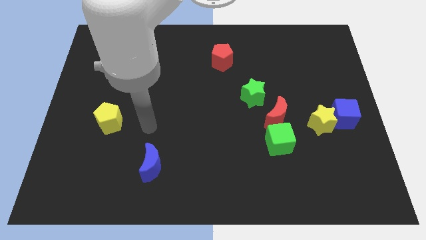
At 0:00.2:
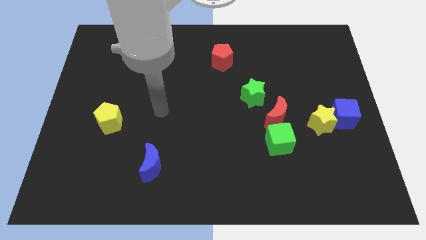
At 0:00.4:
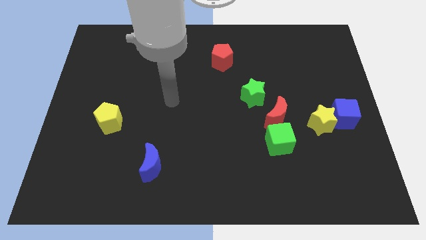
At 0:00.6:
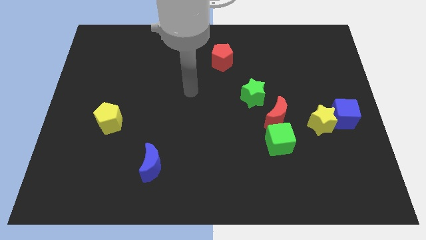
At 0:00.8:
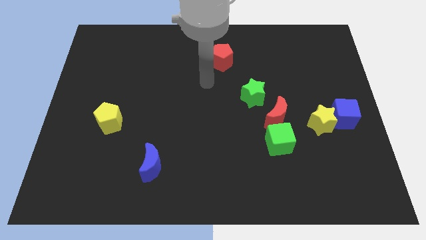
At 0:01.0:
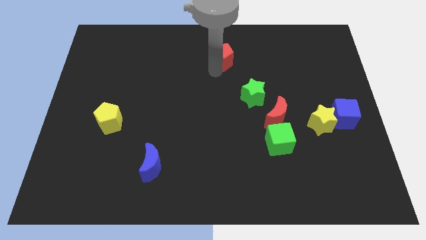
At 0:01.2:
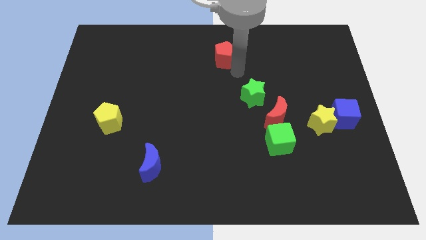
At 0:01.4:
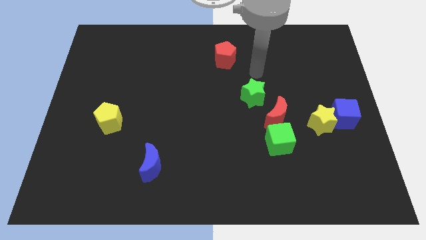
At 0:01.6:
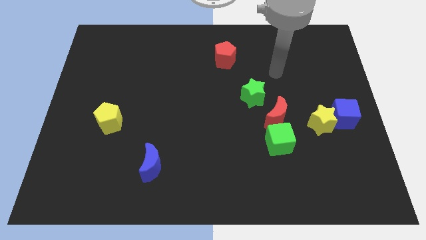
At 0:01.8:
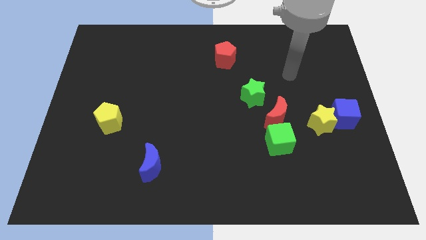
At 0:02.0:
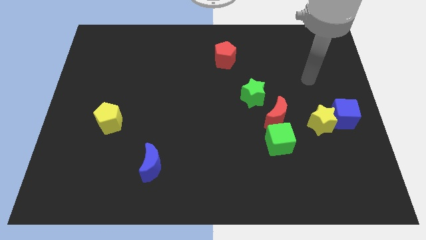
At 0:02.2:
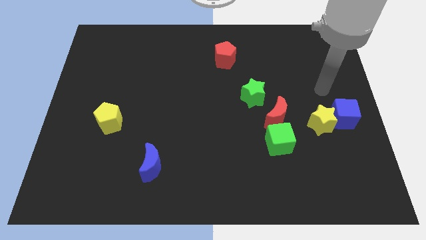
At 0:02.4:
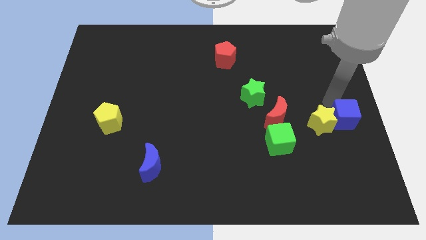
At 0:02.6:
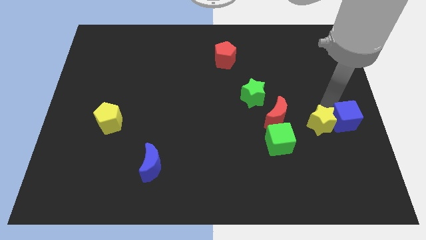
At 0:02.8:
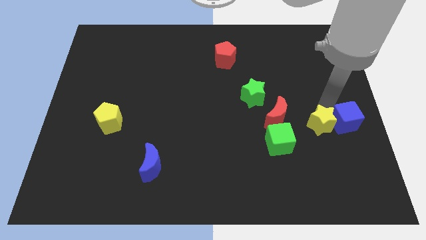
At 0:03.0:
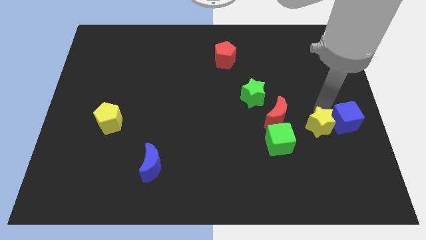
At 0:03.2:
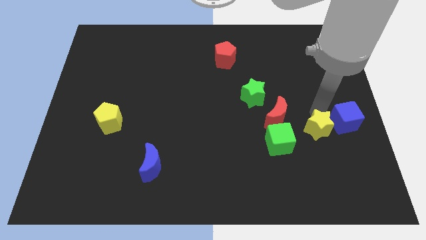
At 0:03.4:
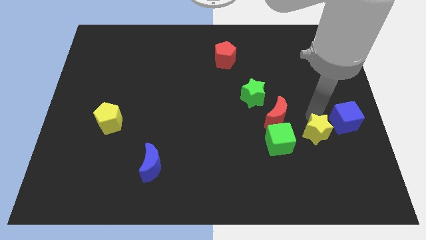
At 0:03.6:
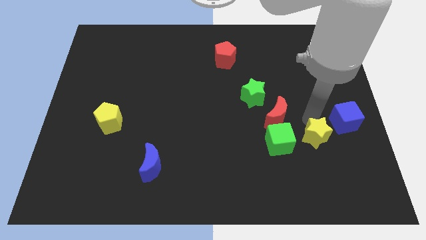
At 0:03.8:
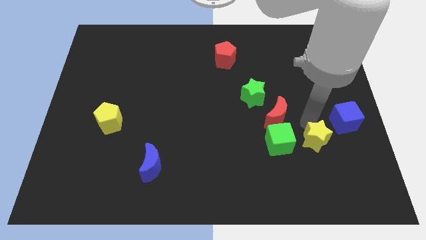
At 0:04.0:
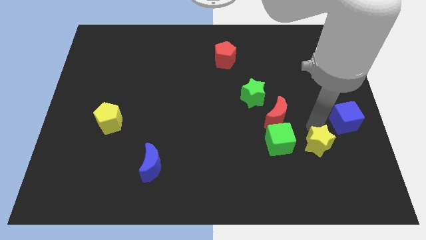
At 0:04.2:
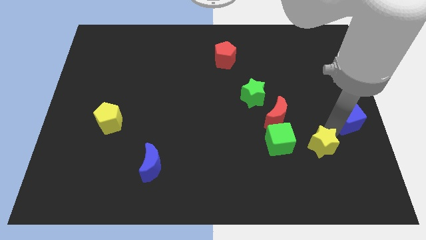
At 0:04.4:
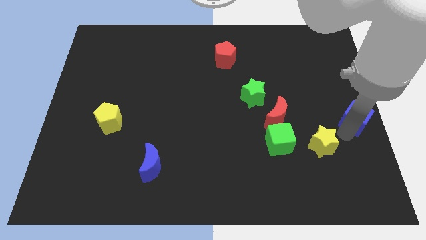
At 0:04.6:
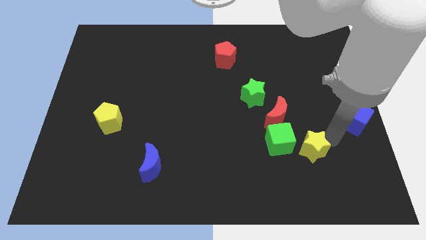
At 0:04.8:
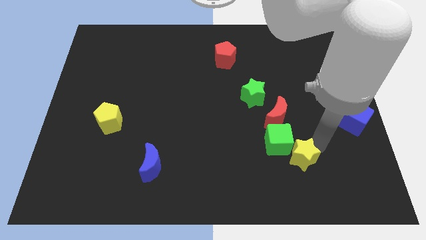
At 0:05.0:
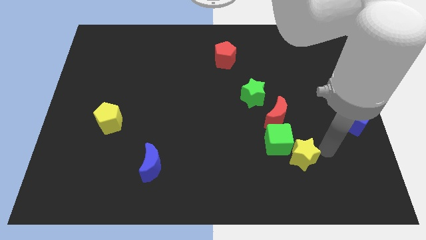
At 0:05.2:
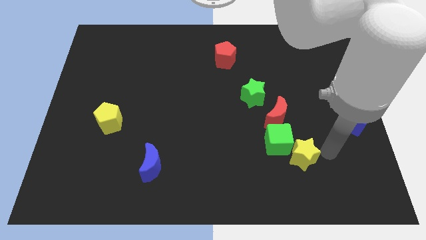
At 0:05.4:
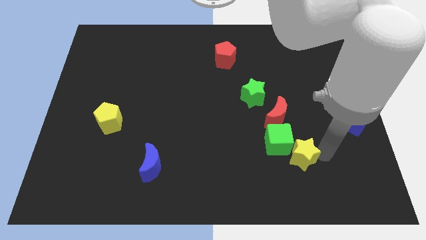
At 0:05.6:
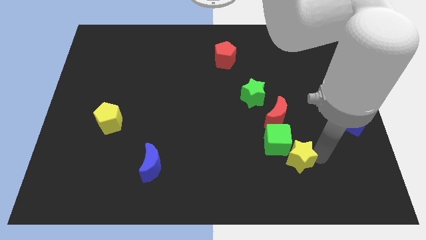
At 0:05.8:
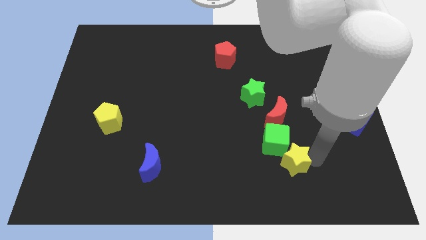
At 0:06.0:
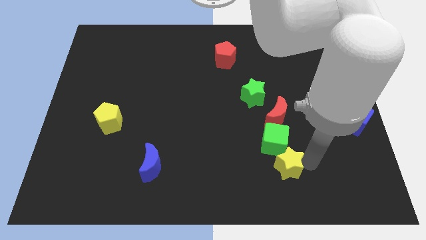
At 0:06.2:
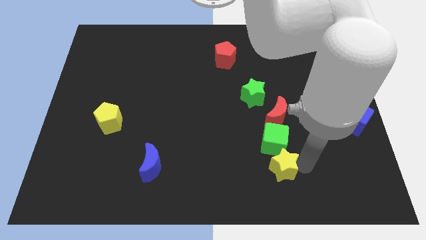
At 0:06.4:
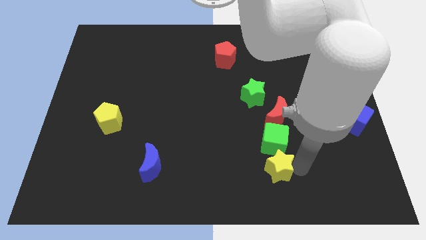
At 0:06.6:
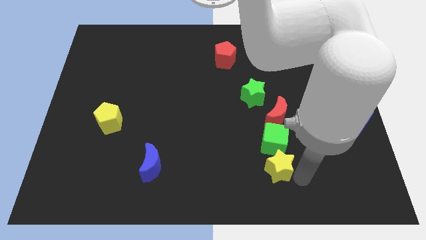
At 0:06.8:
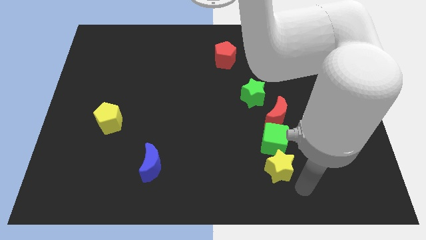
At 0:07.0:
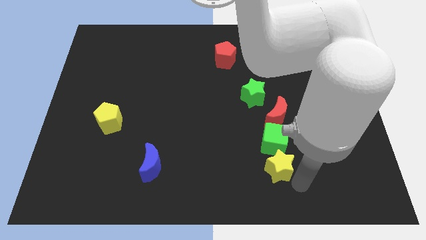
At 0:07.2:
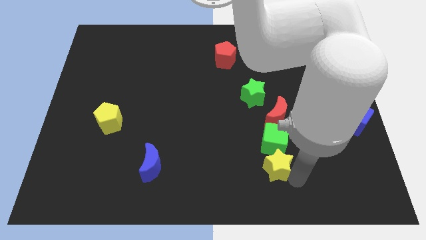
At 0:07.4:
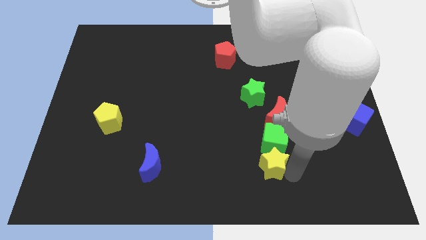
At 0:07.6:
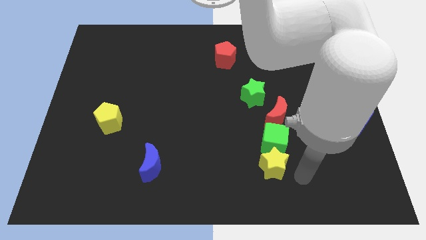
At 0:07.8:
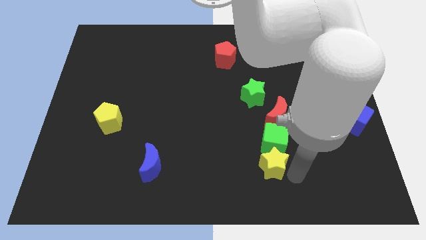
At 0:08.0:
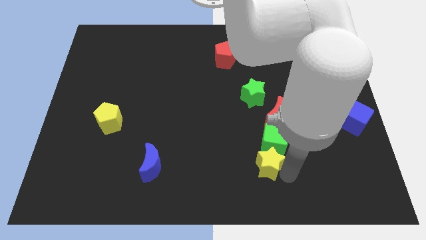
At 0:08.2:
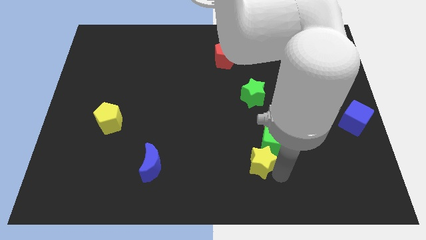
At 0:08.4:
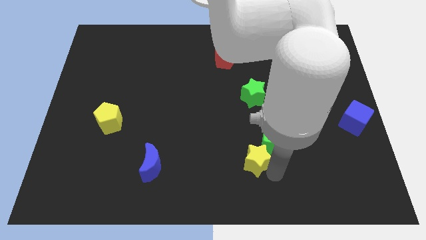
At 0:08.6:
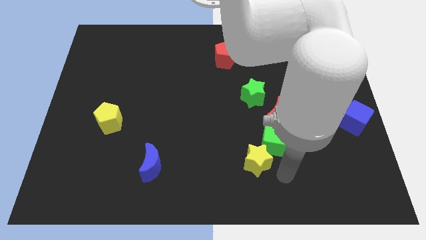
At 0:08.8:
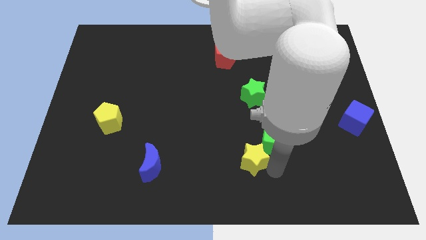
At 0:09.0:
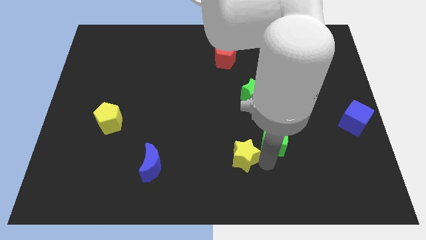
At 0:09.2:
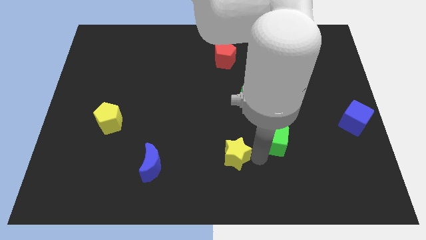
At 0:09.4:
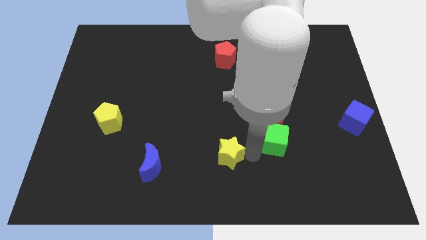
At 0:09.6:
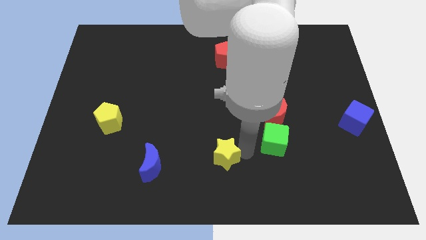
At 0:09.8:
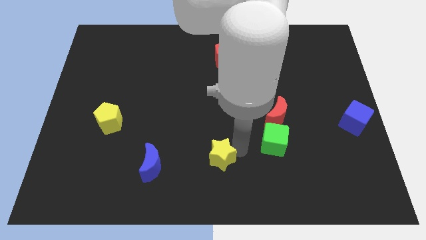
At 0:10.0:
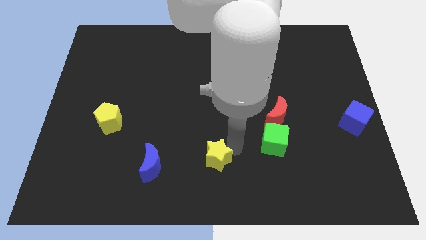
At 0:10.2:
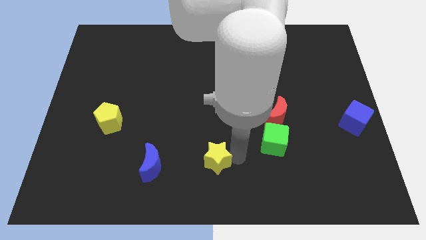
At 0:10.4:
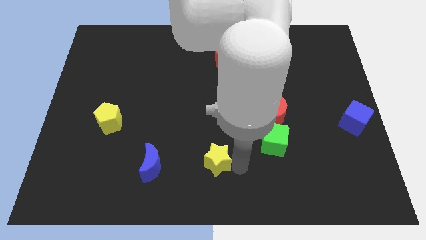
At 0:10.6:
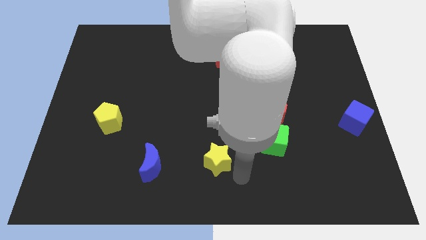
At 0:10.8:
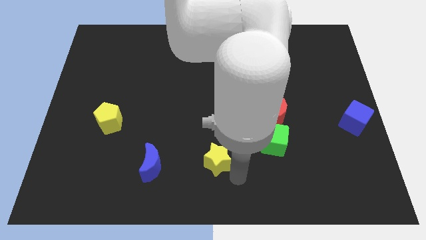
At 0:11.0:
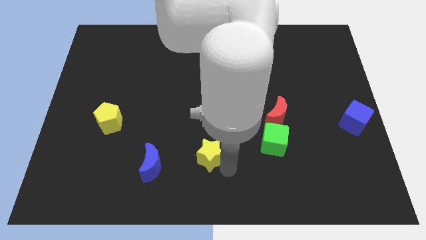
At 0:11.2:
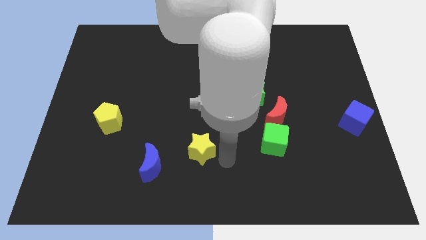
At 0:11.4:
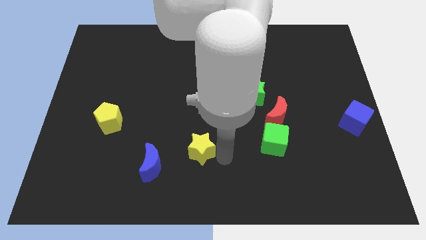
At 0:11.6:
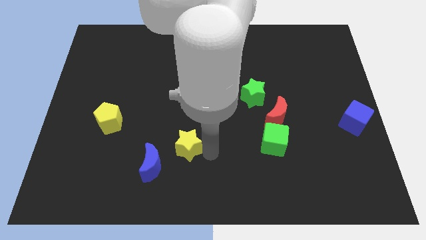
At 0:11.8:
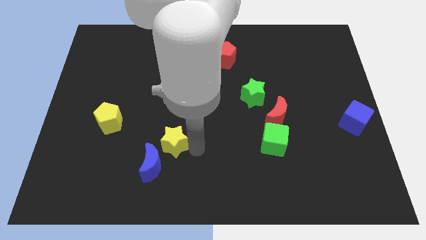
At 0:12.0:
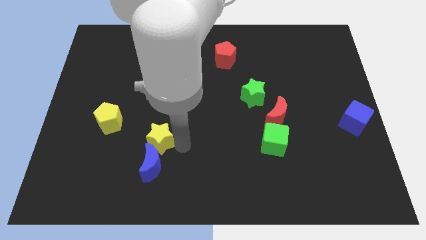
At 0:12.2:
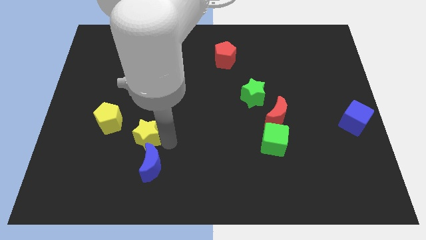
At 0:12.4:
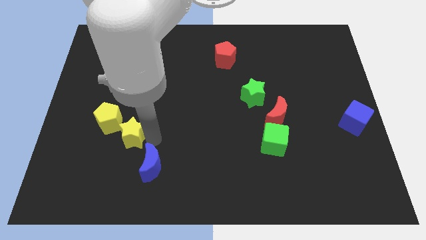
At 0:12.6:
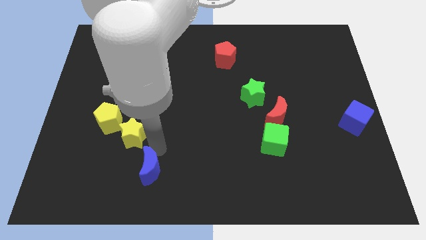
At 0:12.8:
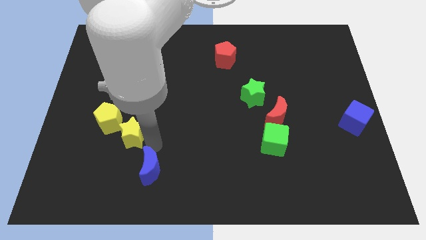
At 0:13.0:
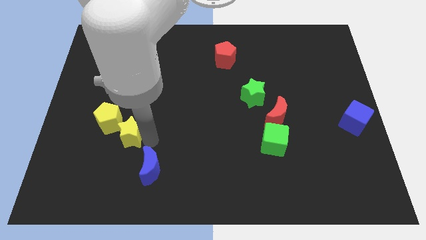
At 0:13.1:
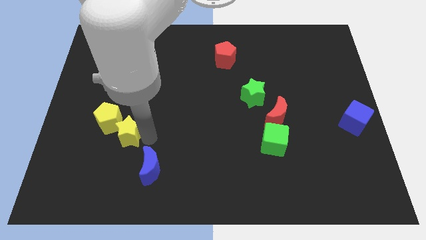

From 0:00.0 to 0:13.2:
slide the yellow star close to the yellow pentagon
